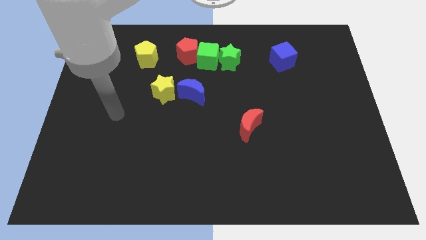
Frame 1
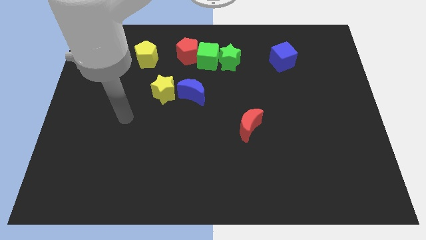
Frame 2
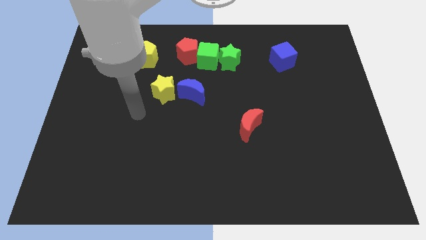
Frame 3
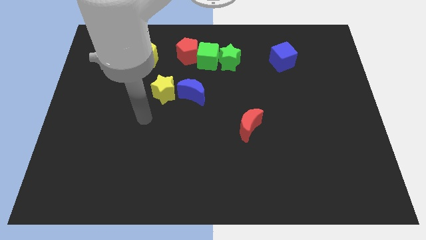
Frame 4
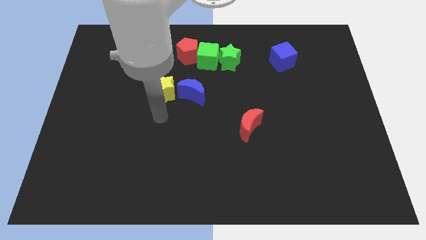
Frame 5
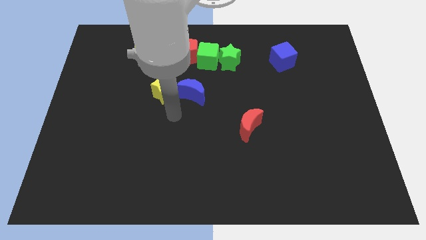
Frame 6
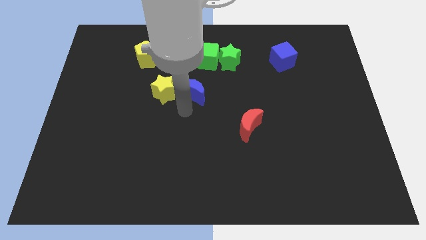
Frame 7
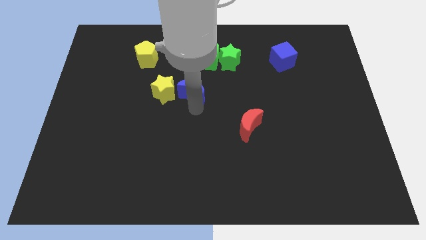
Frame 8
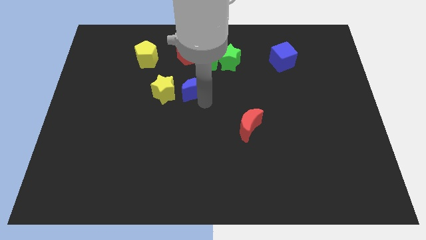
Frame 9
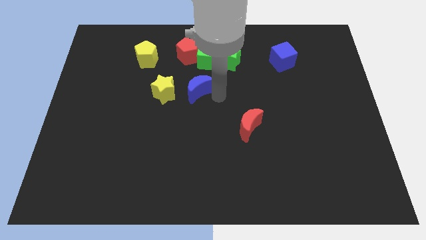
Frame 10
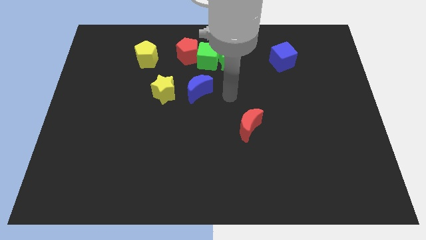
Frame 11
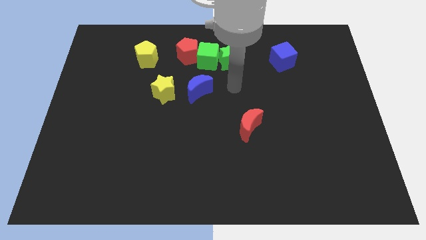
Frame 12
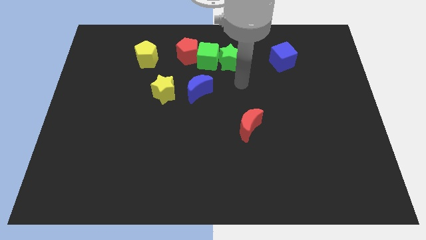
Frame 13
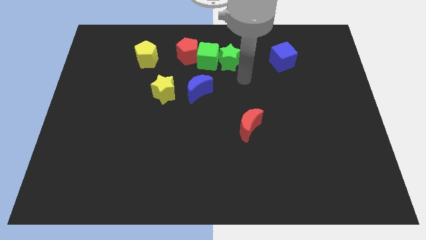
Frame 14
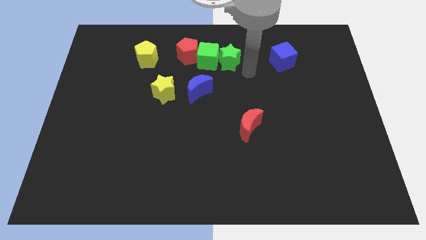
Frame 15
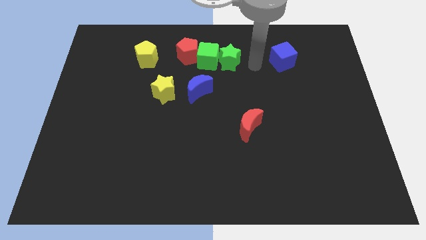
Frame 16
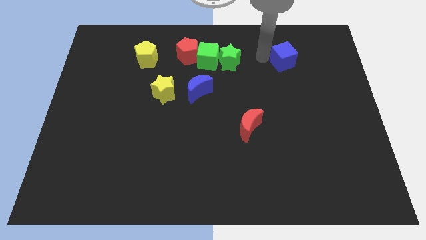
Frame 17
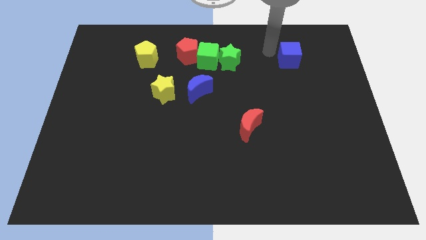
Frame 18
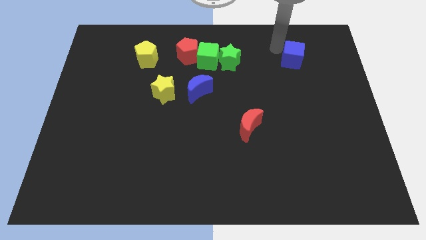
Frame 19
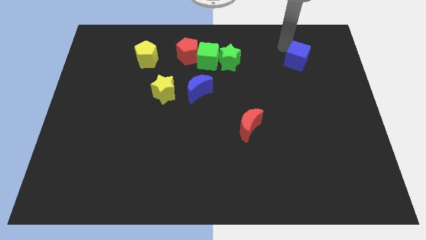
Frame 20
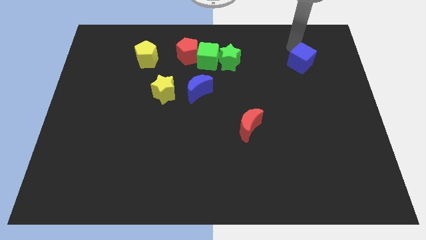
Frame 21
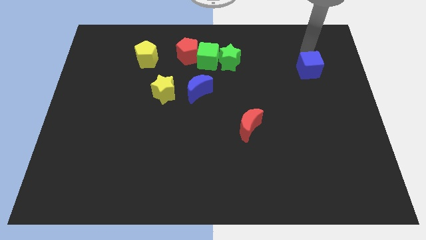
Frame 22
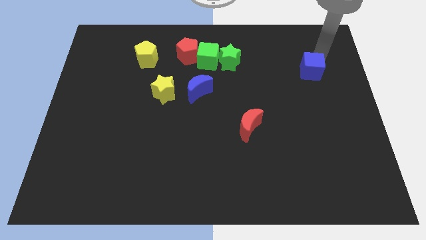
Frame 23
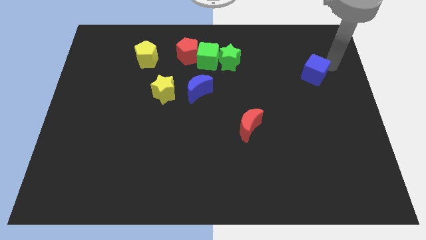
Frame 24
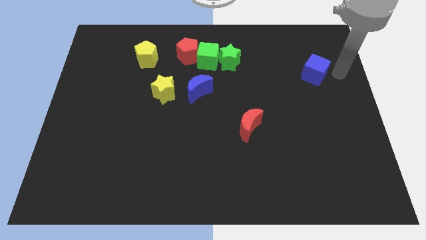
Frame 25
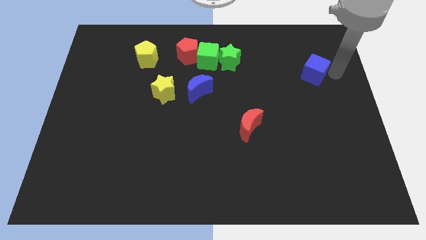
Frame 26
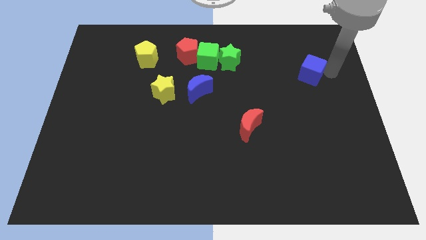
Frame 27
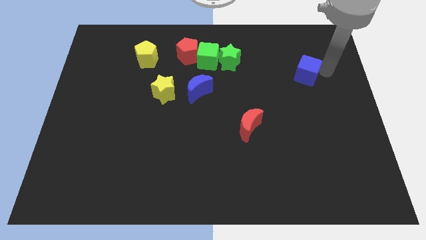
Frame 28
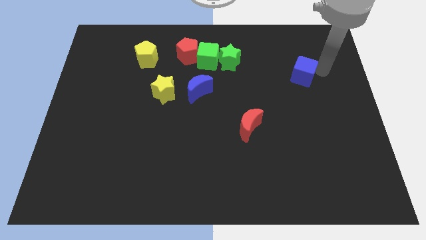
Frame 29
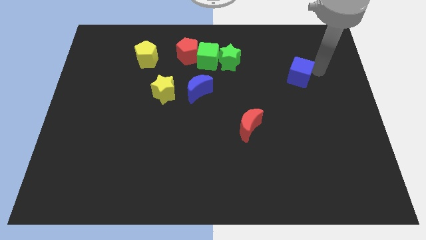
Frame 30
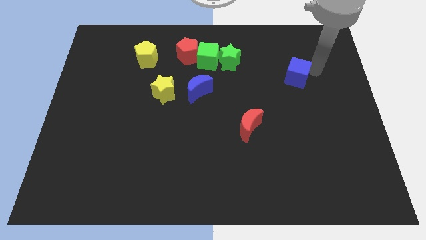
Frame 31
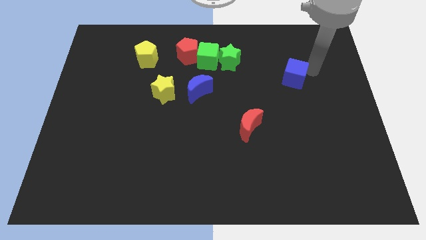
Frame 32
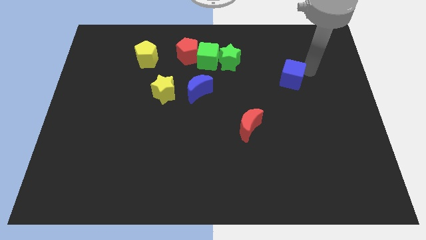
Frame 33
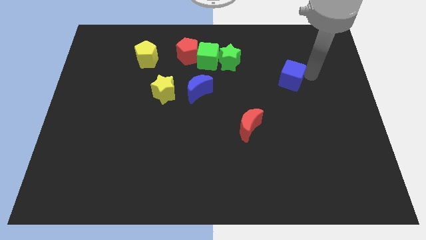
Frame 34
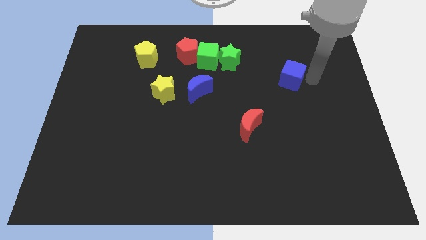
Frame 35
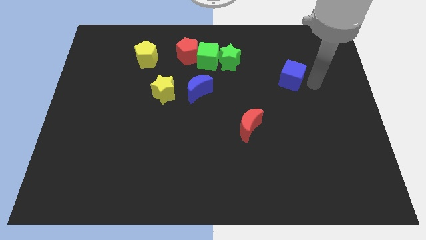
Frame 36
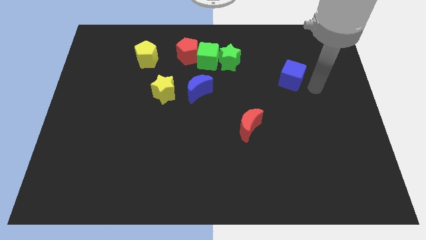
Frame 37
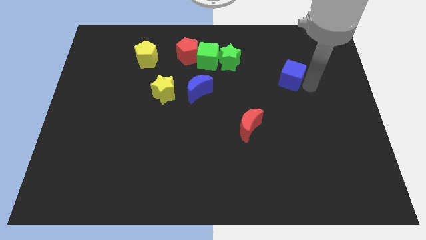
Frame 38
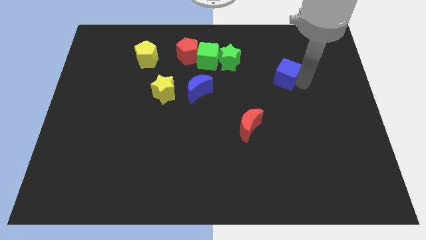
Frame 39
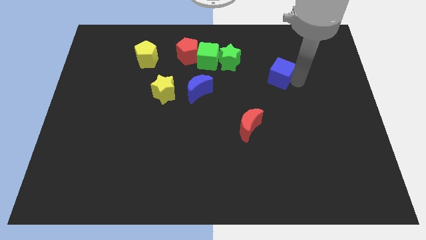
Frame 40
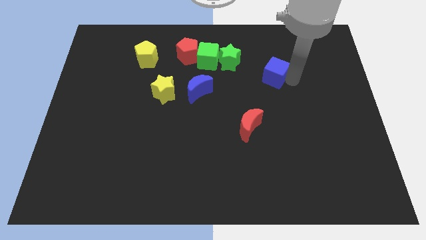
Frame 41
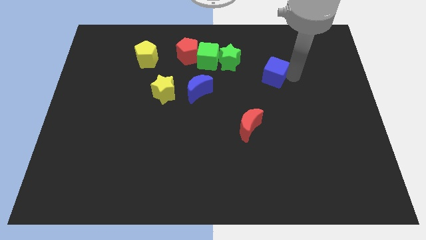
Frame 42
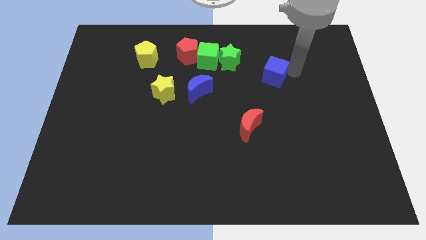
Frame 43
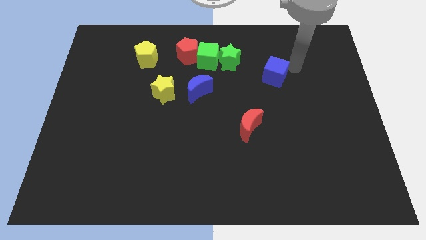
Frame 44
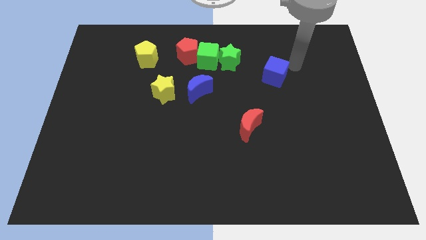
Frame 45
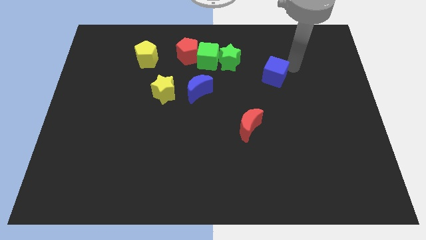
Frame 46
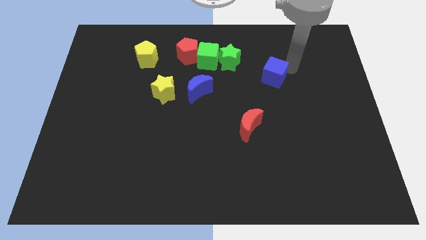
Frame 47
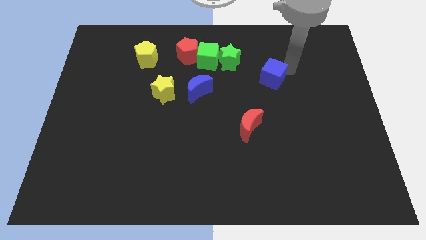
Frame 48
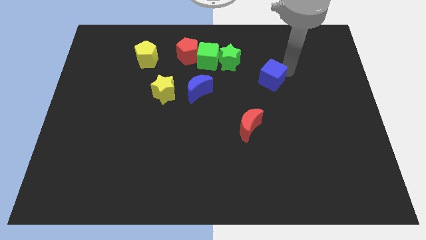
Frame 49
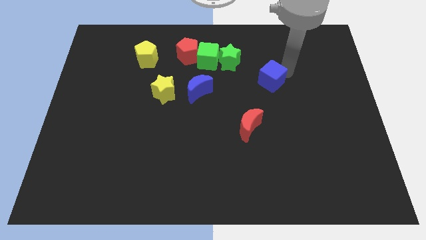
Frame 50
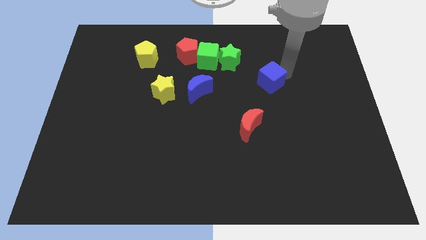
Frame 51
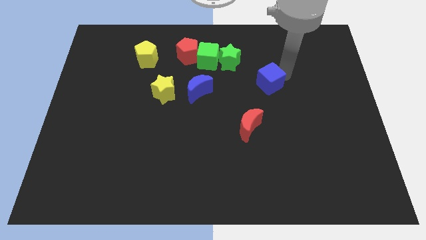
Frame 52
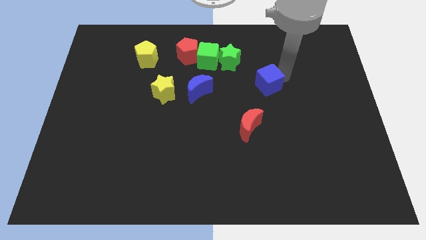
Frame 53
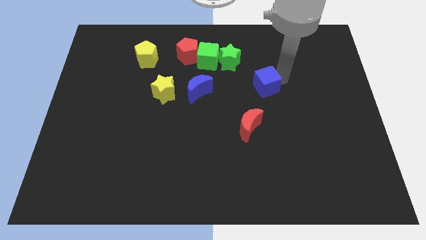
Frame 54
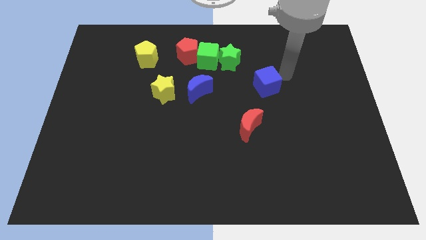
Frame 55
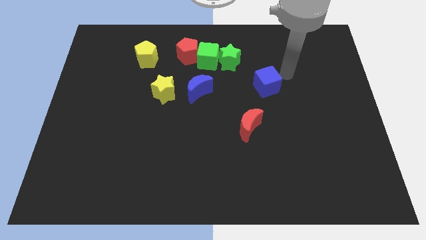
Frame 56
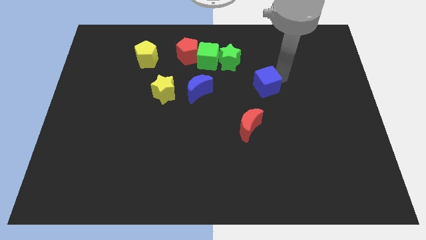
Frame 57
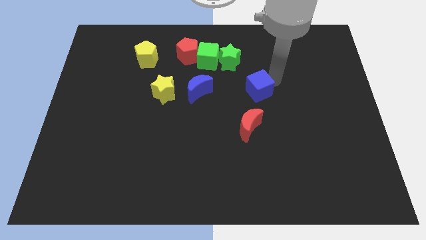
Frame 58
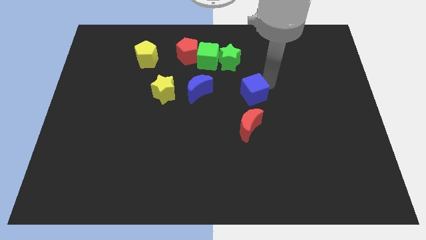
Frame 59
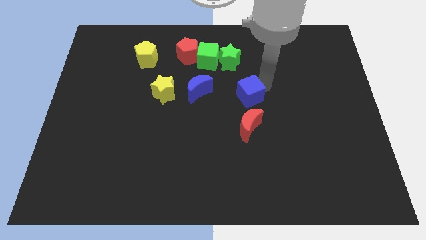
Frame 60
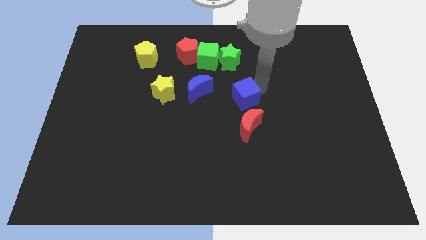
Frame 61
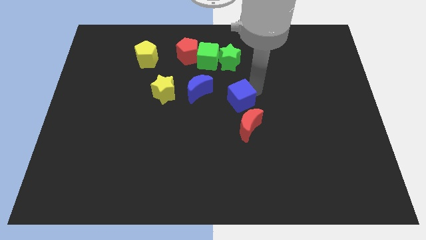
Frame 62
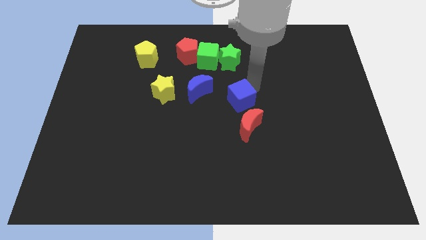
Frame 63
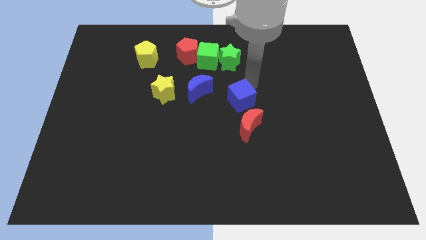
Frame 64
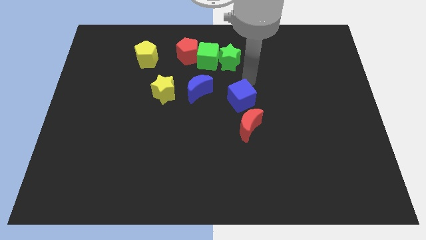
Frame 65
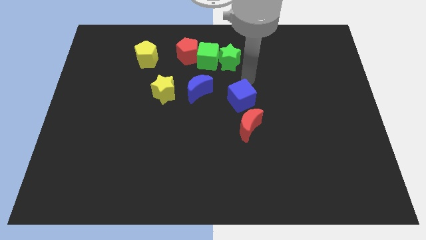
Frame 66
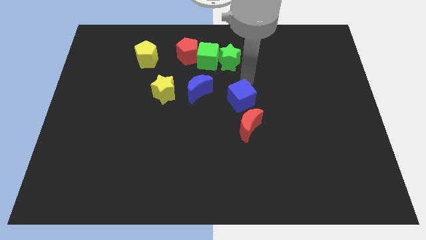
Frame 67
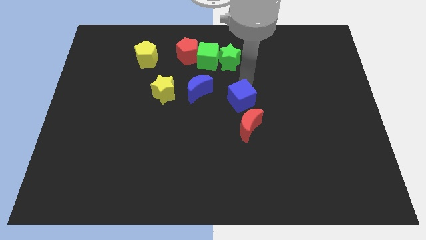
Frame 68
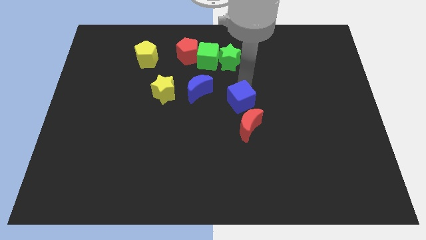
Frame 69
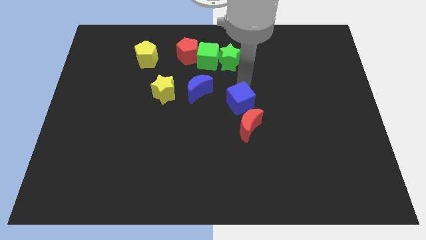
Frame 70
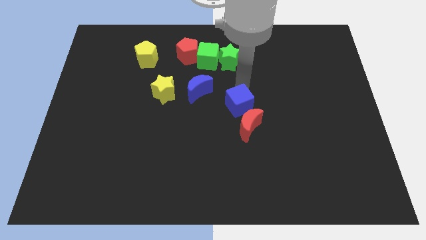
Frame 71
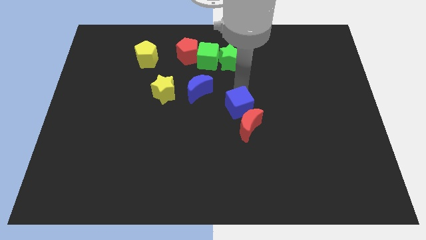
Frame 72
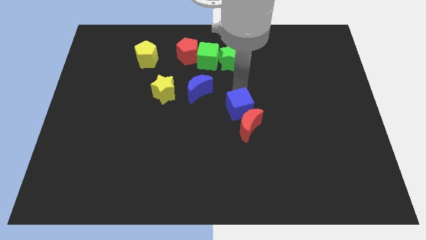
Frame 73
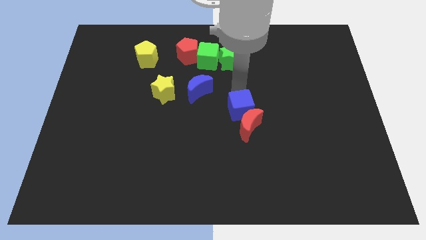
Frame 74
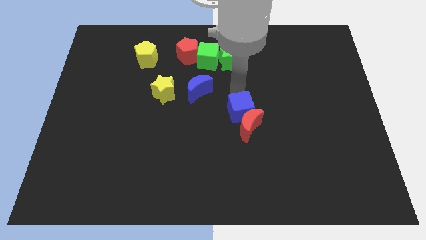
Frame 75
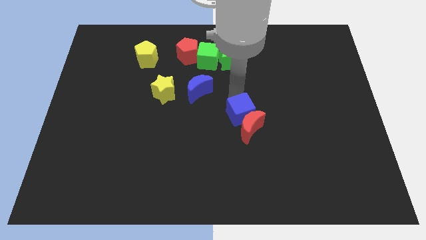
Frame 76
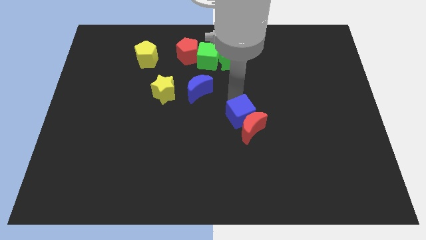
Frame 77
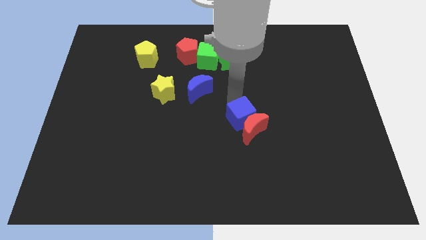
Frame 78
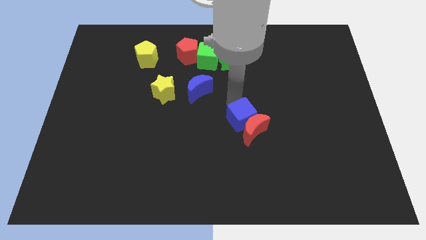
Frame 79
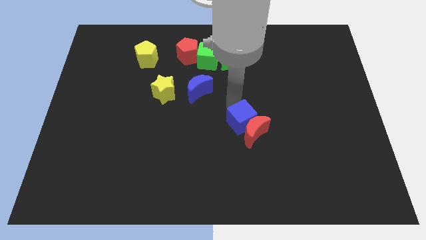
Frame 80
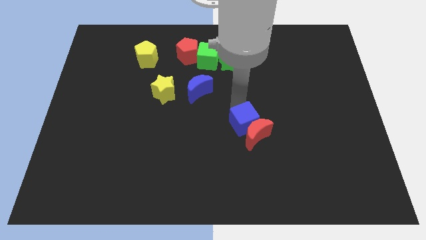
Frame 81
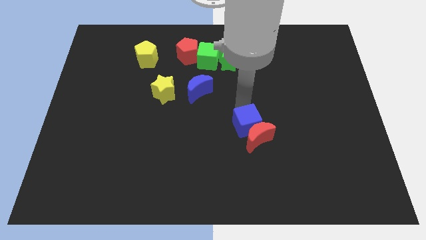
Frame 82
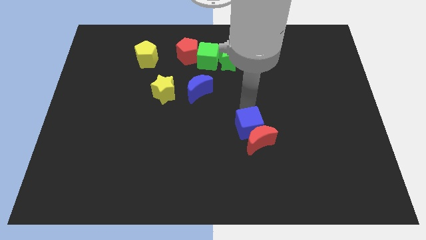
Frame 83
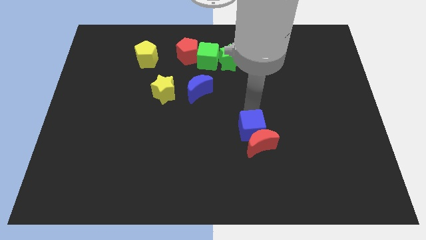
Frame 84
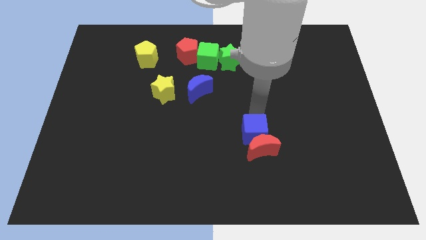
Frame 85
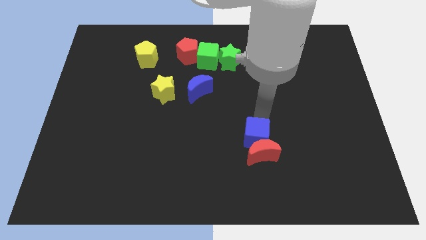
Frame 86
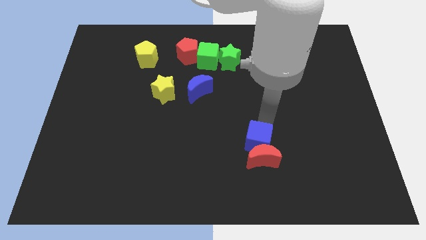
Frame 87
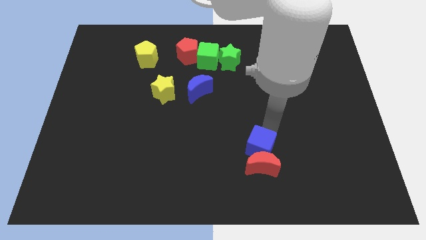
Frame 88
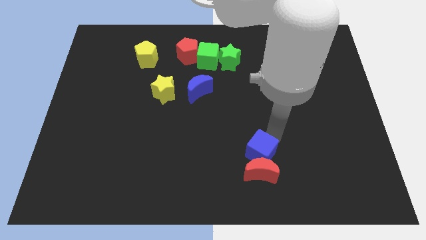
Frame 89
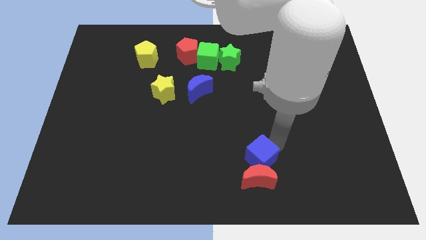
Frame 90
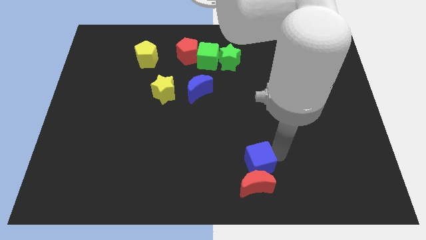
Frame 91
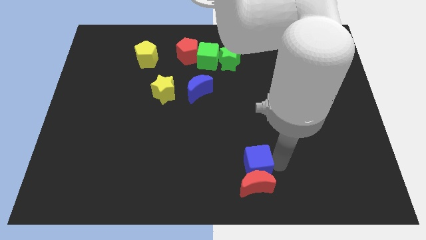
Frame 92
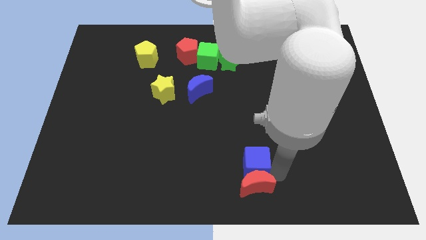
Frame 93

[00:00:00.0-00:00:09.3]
slide the blue cube to the bottom side
